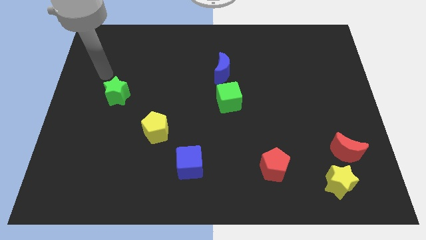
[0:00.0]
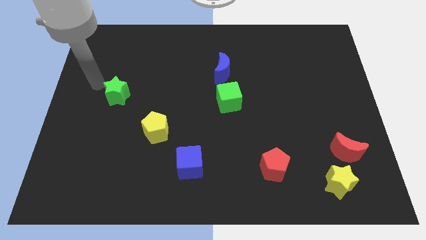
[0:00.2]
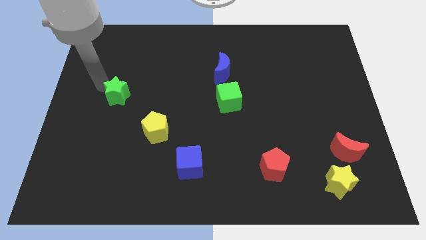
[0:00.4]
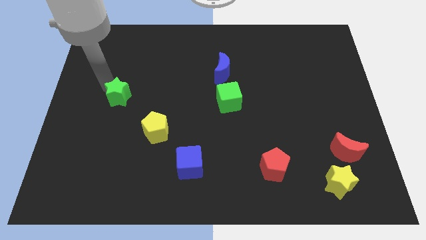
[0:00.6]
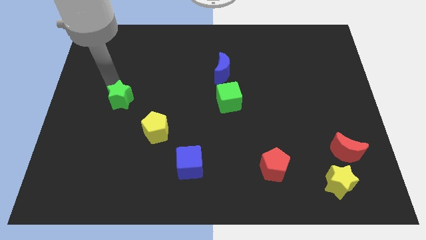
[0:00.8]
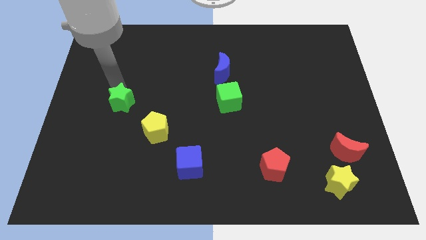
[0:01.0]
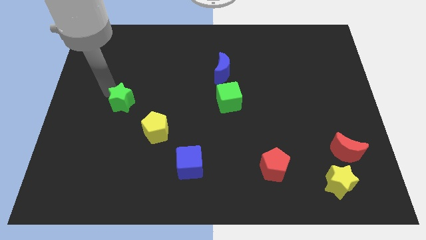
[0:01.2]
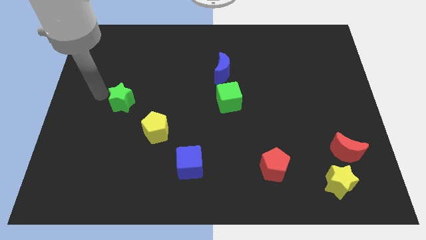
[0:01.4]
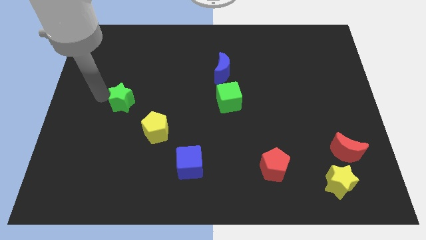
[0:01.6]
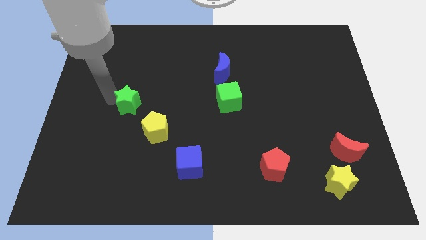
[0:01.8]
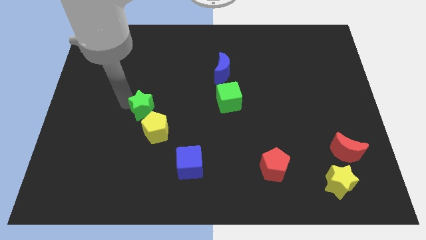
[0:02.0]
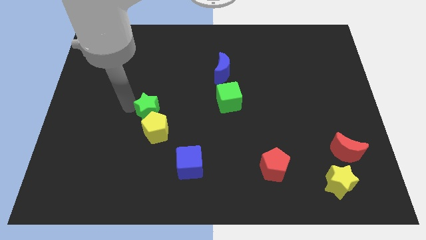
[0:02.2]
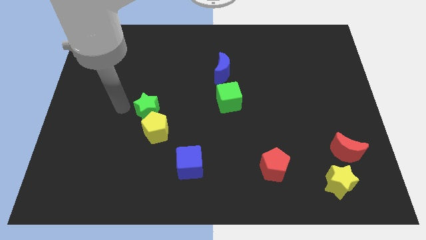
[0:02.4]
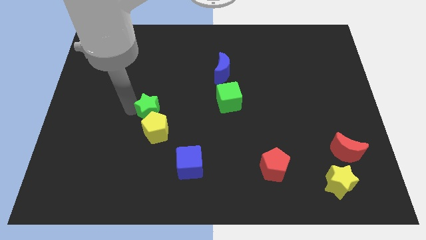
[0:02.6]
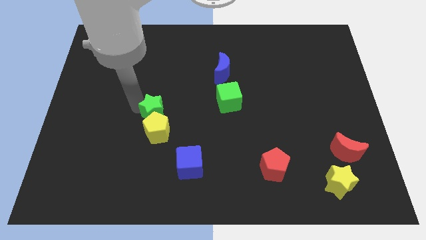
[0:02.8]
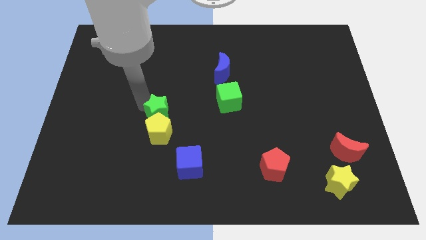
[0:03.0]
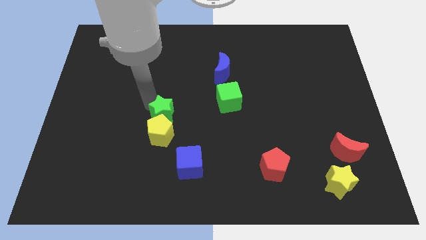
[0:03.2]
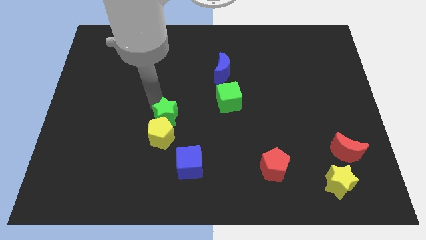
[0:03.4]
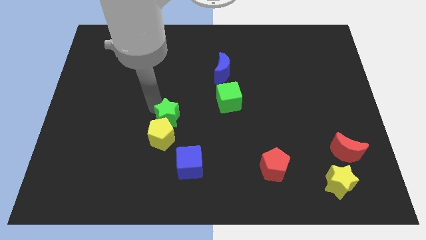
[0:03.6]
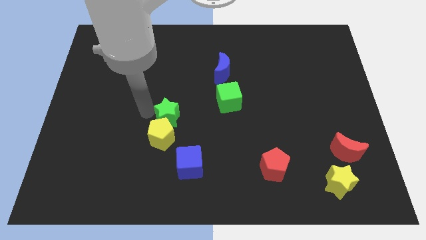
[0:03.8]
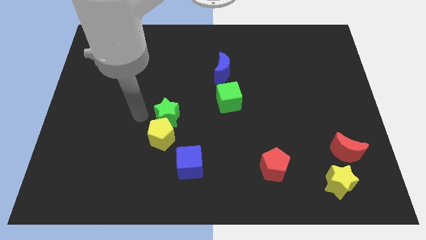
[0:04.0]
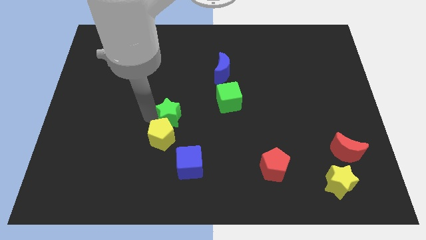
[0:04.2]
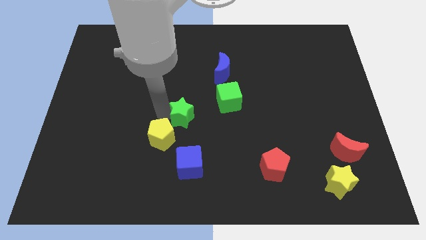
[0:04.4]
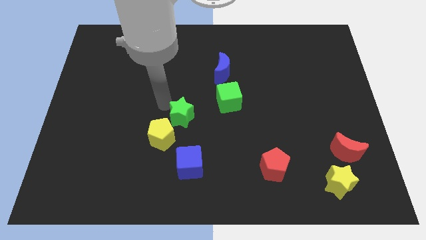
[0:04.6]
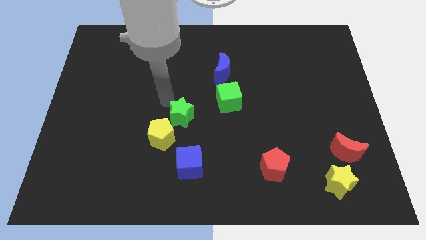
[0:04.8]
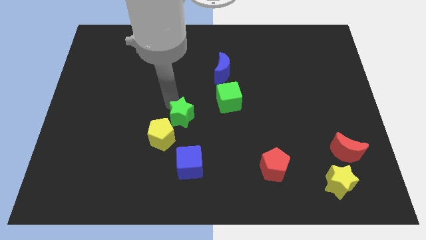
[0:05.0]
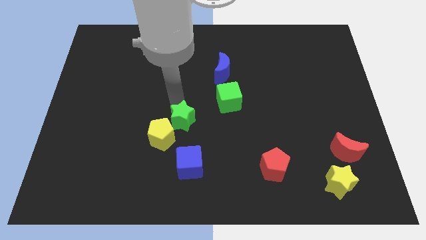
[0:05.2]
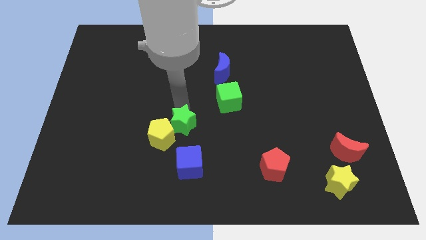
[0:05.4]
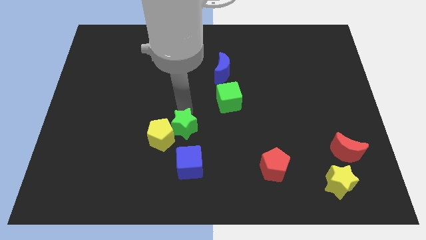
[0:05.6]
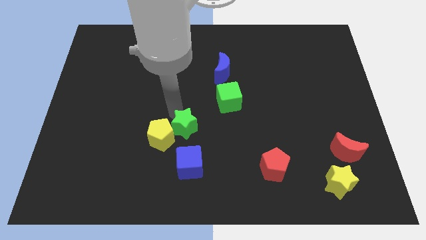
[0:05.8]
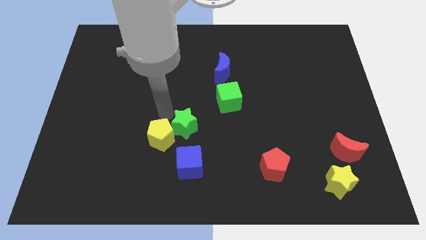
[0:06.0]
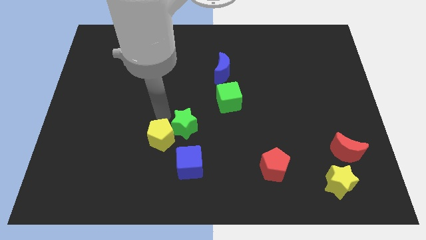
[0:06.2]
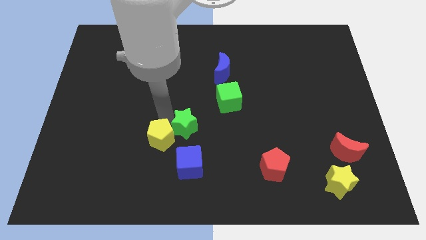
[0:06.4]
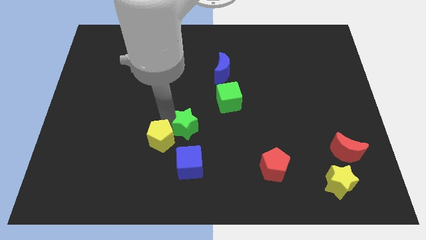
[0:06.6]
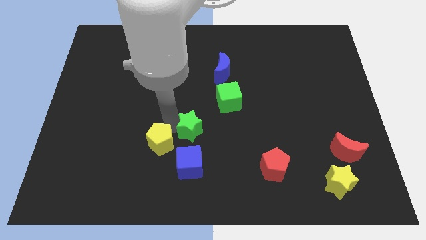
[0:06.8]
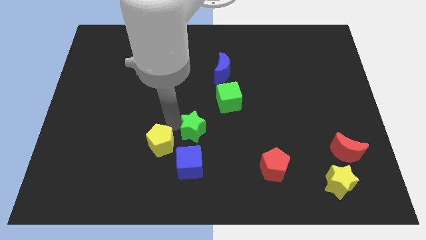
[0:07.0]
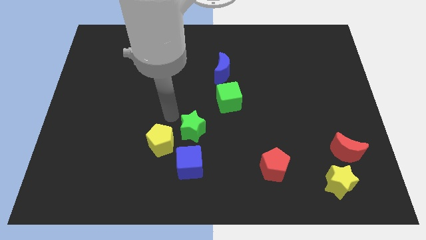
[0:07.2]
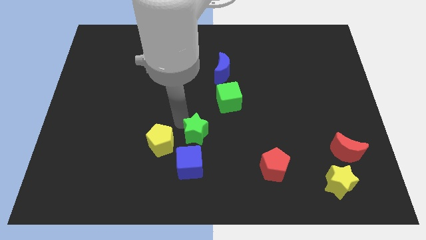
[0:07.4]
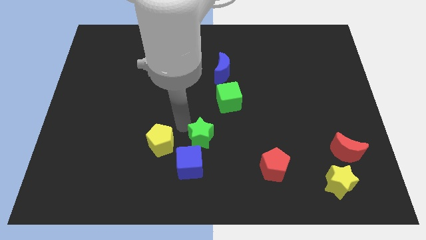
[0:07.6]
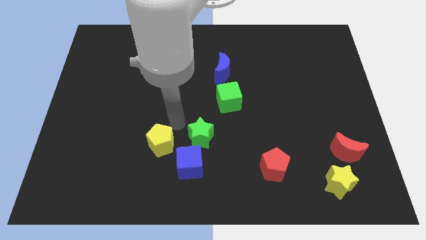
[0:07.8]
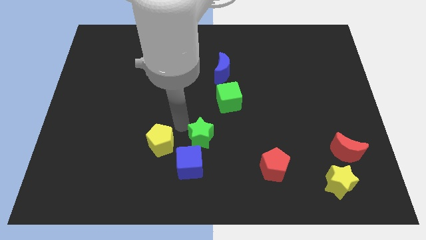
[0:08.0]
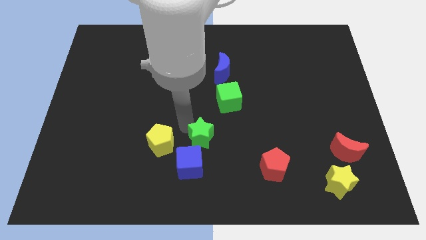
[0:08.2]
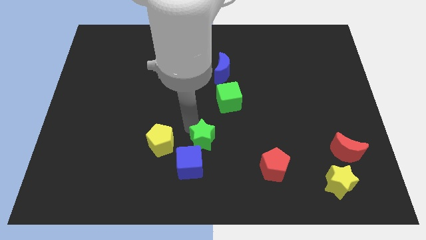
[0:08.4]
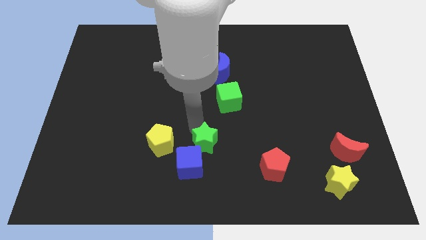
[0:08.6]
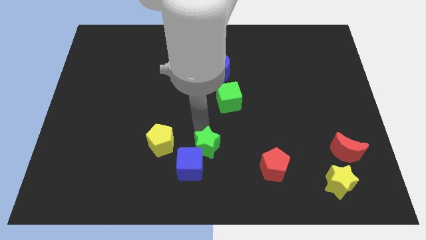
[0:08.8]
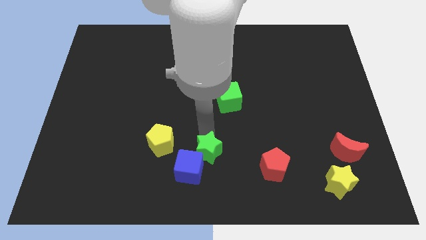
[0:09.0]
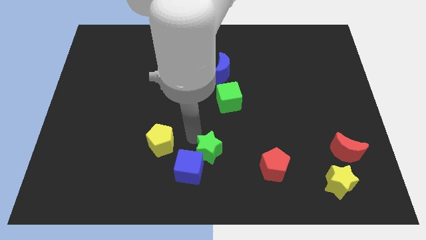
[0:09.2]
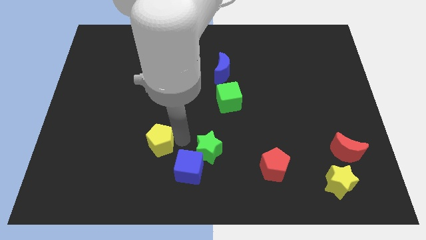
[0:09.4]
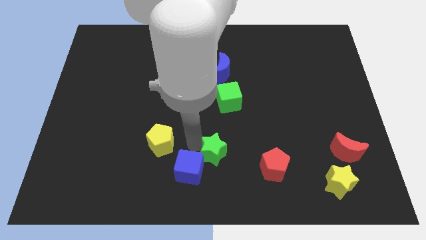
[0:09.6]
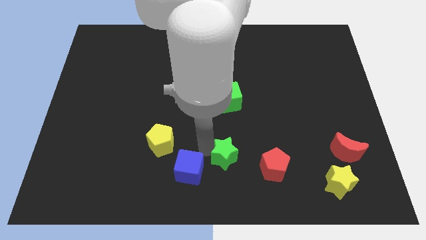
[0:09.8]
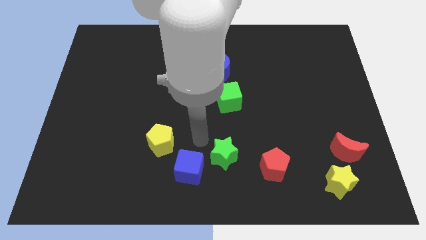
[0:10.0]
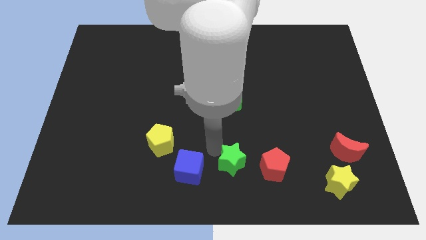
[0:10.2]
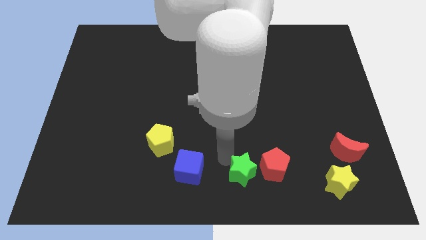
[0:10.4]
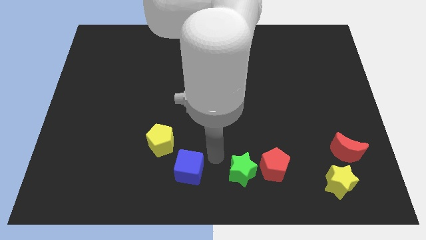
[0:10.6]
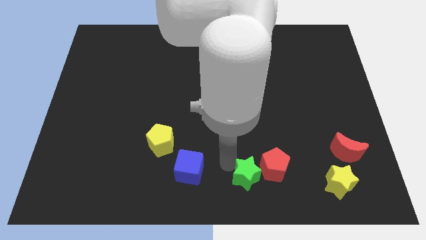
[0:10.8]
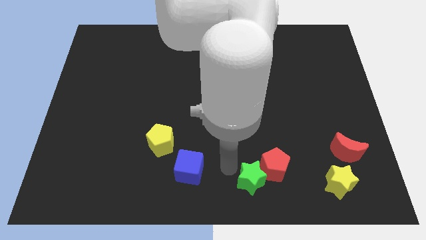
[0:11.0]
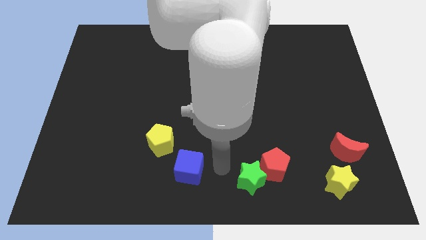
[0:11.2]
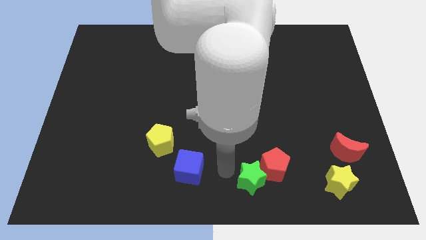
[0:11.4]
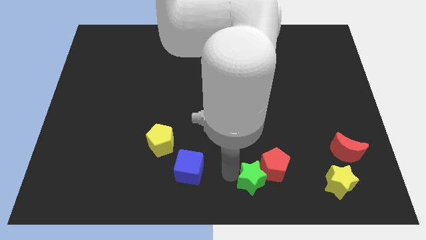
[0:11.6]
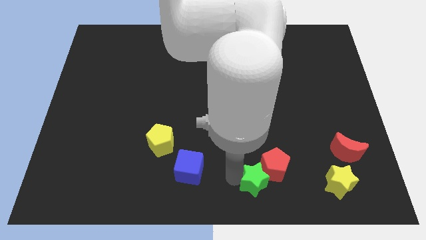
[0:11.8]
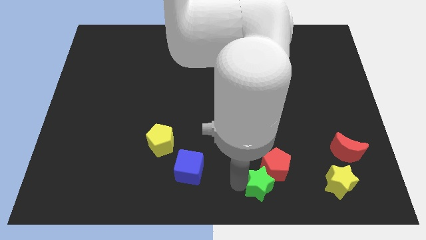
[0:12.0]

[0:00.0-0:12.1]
move the green star to the left side of the yellow star

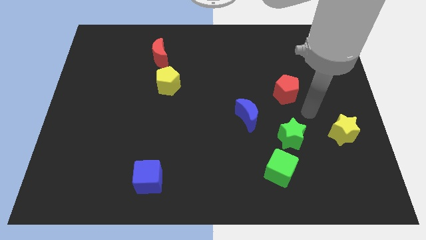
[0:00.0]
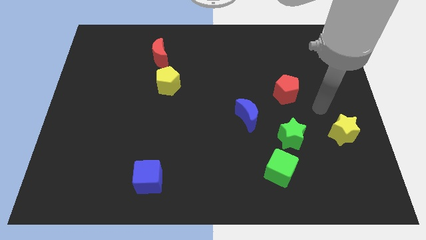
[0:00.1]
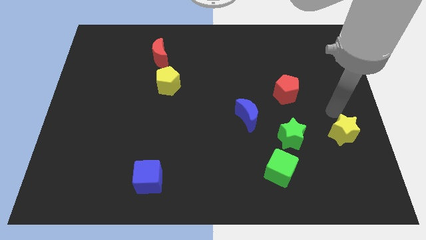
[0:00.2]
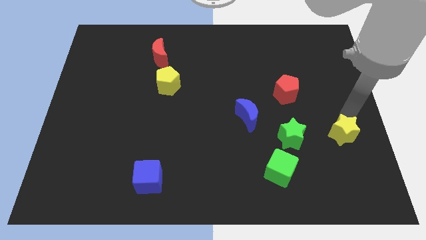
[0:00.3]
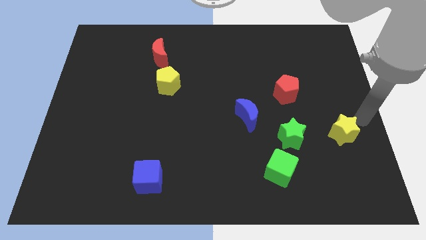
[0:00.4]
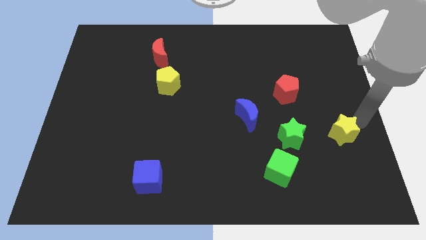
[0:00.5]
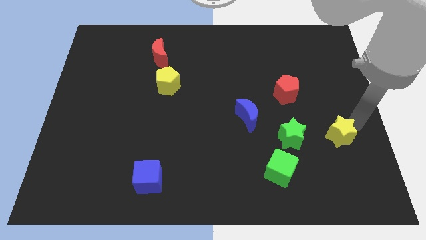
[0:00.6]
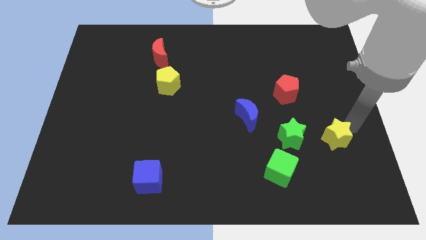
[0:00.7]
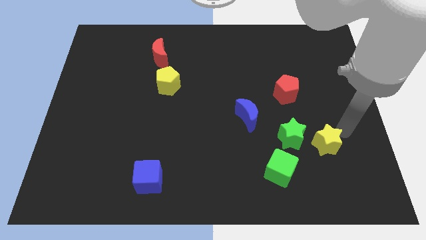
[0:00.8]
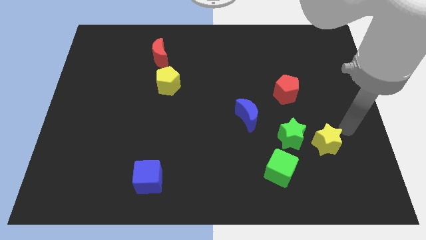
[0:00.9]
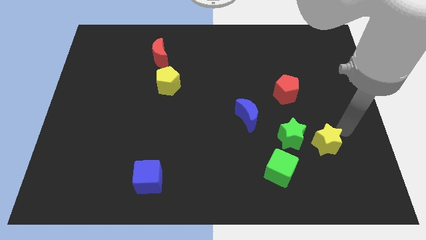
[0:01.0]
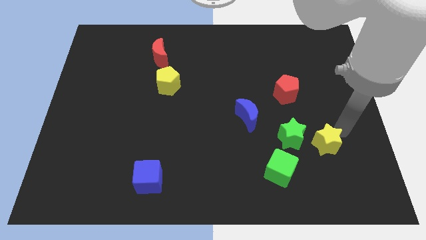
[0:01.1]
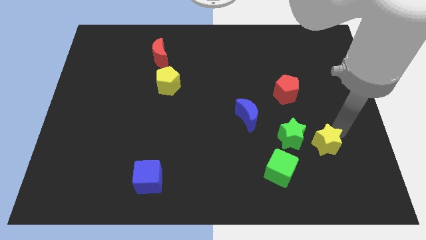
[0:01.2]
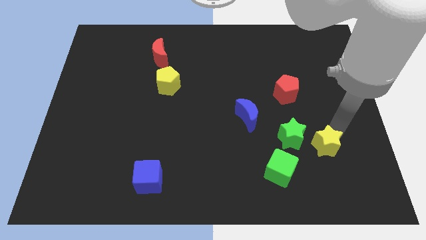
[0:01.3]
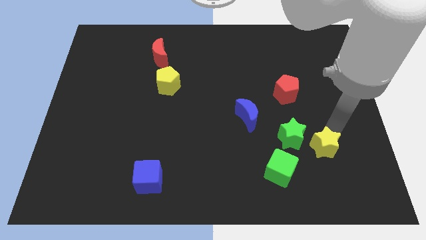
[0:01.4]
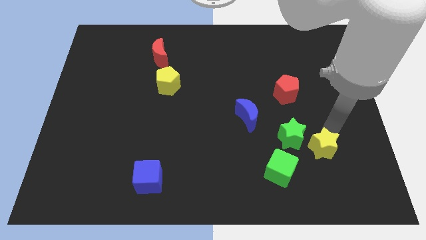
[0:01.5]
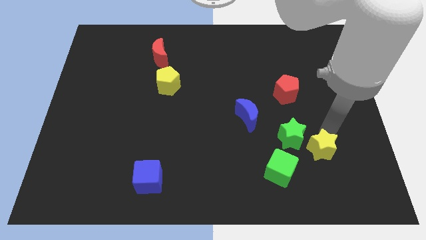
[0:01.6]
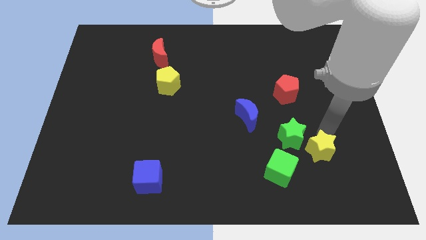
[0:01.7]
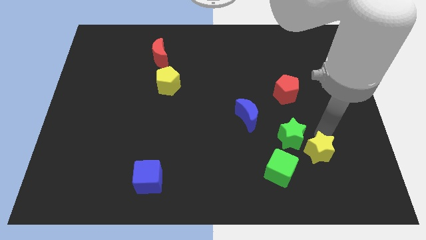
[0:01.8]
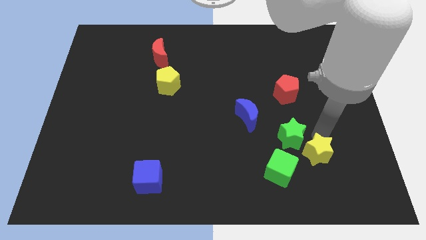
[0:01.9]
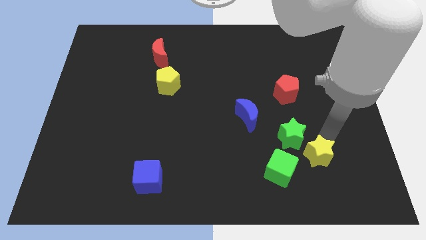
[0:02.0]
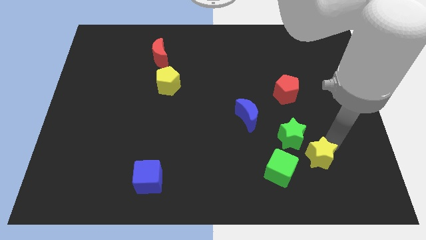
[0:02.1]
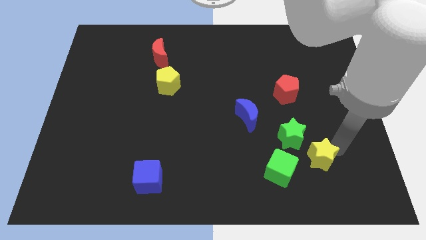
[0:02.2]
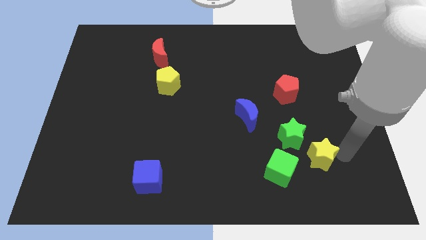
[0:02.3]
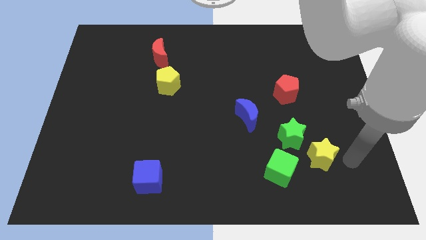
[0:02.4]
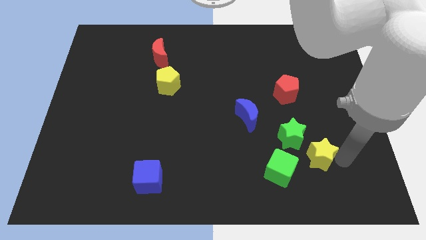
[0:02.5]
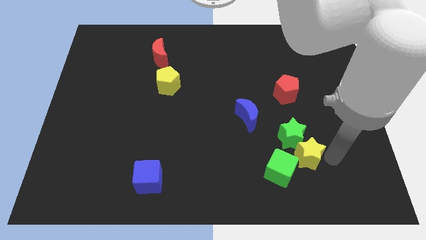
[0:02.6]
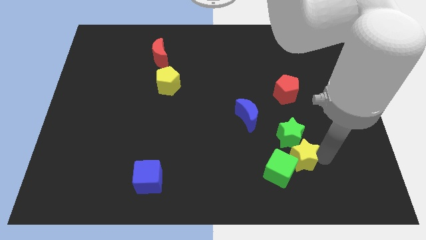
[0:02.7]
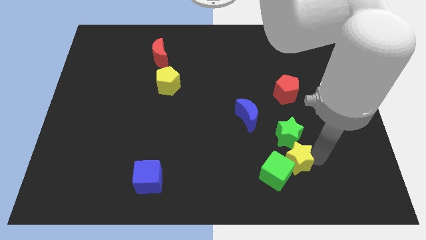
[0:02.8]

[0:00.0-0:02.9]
put the yellow star to the bottom left of the green star
